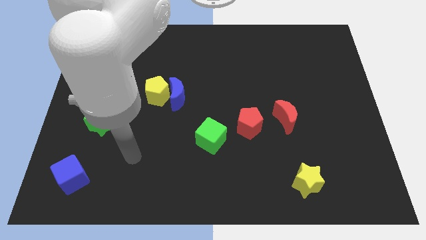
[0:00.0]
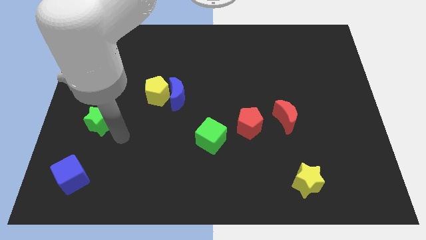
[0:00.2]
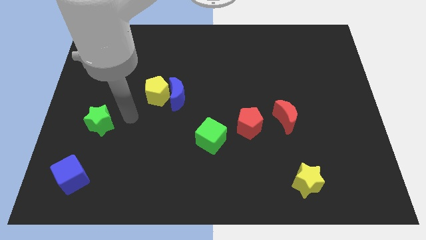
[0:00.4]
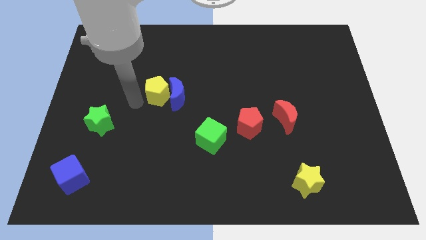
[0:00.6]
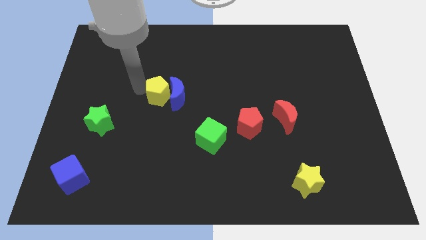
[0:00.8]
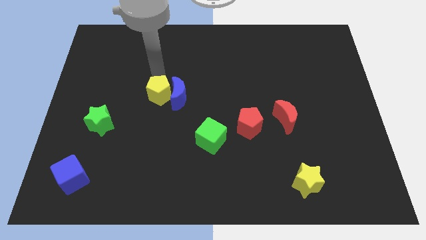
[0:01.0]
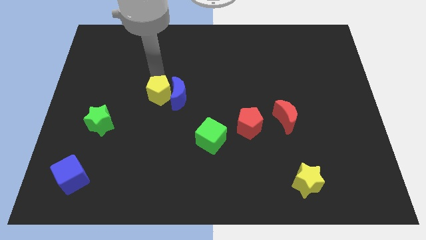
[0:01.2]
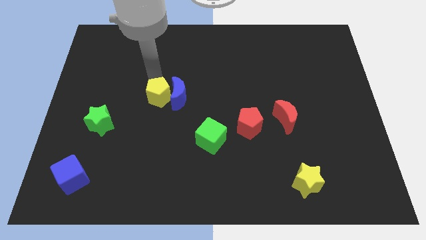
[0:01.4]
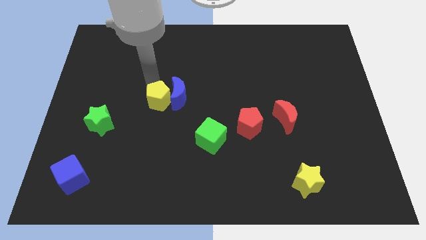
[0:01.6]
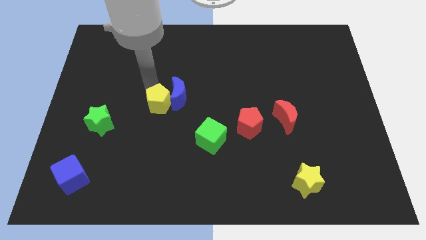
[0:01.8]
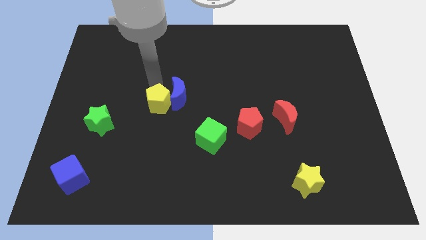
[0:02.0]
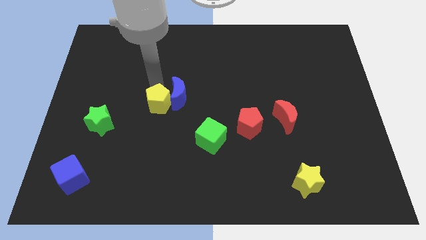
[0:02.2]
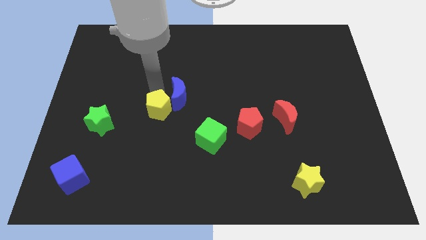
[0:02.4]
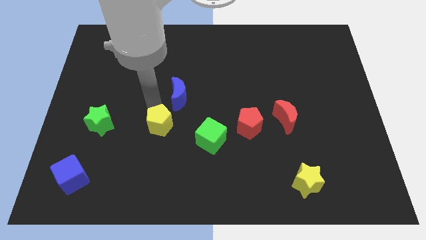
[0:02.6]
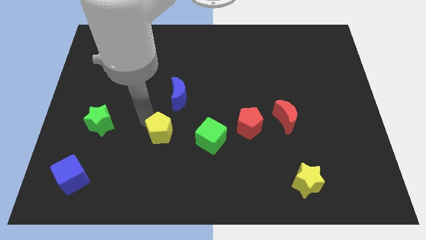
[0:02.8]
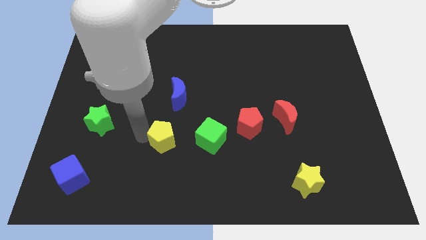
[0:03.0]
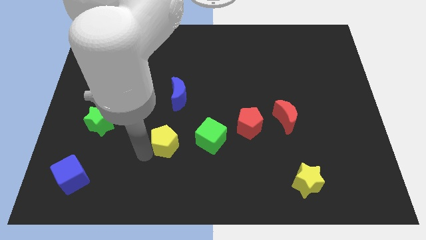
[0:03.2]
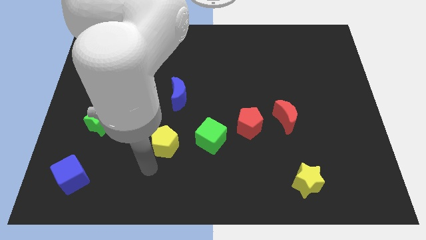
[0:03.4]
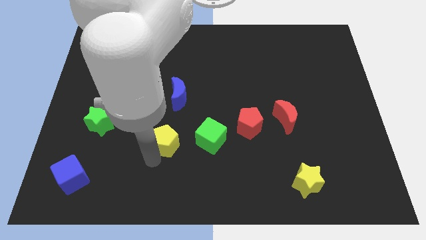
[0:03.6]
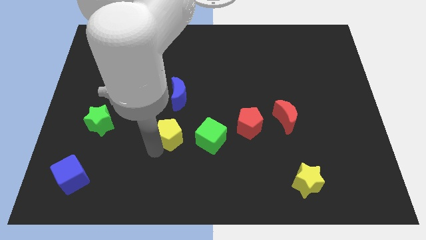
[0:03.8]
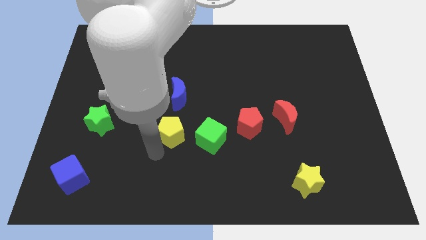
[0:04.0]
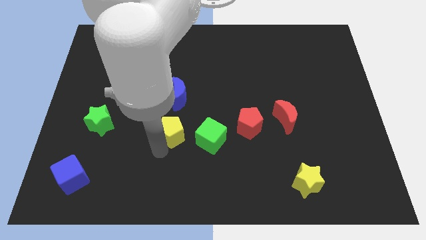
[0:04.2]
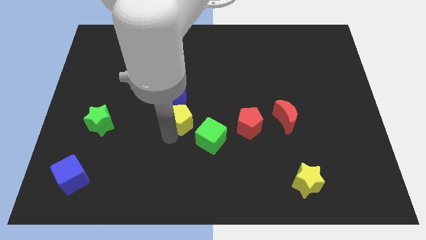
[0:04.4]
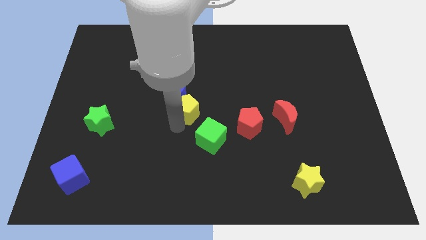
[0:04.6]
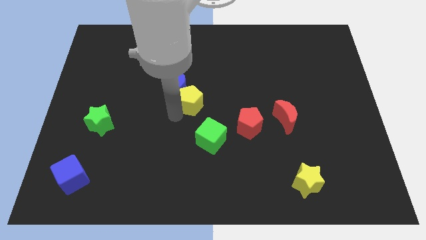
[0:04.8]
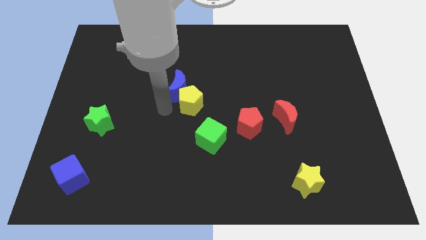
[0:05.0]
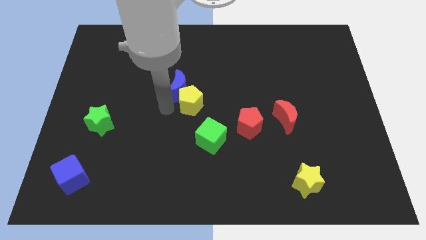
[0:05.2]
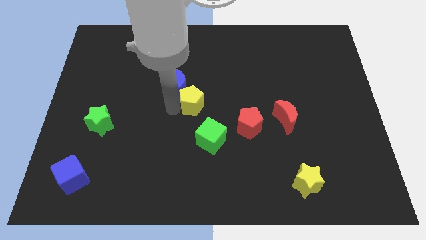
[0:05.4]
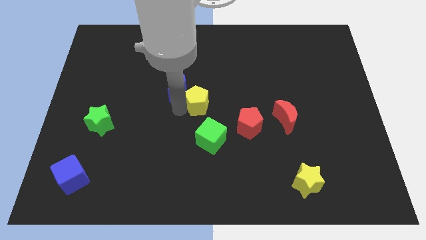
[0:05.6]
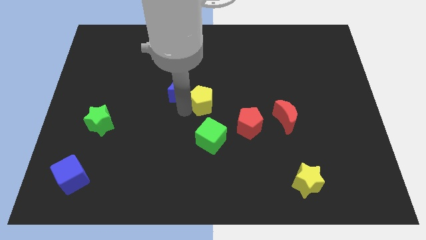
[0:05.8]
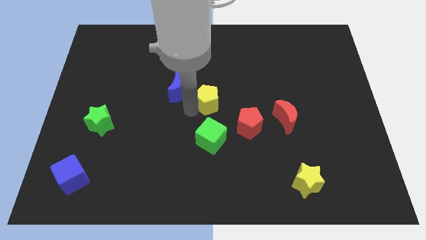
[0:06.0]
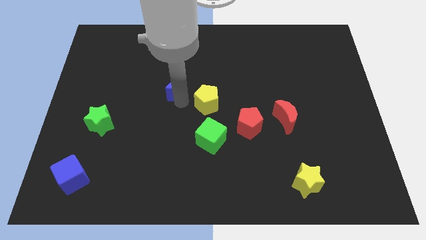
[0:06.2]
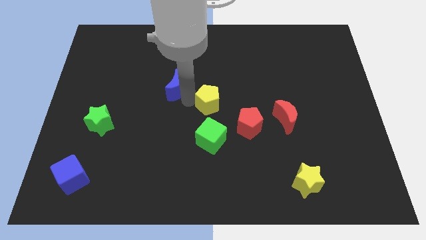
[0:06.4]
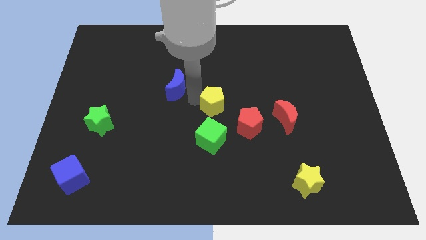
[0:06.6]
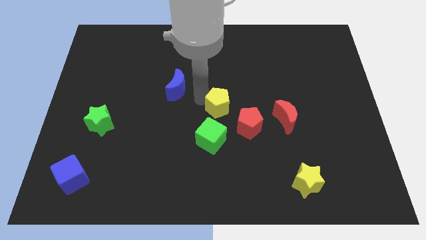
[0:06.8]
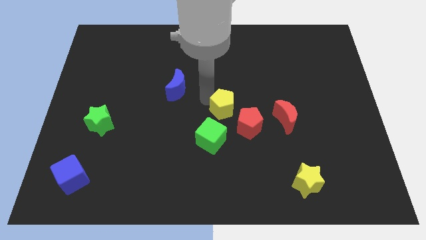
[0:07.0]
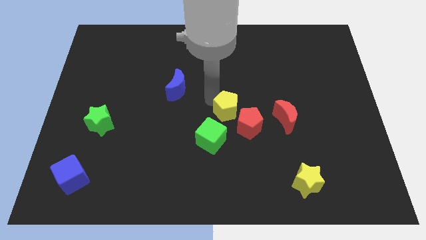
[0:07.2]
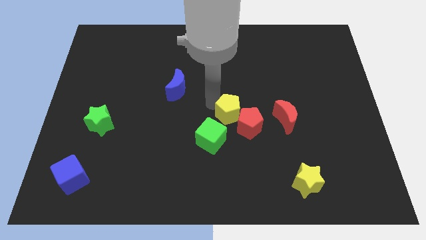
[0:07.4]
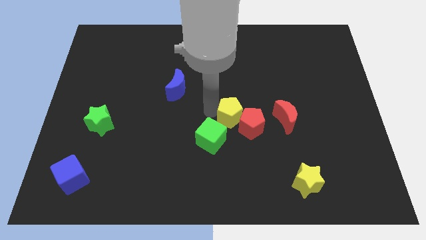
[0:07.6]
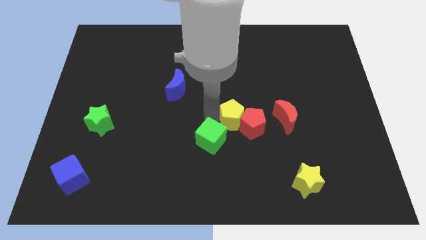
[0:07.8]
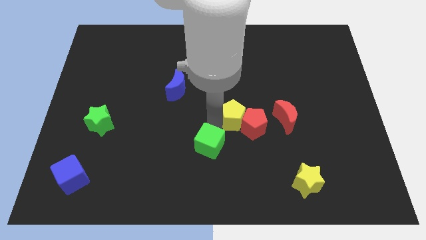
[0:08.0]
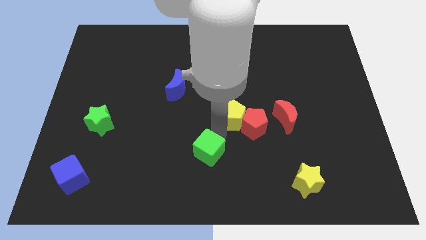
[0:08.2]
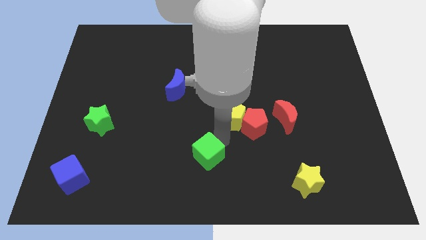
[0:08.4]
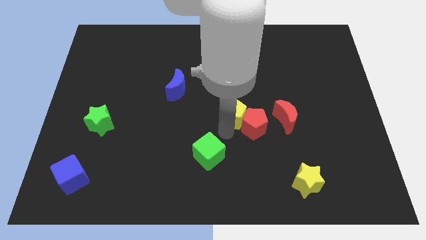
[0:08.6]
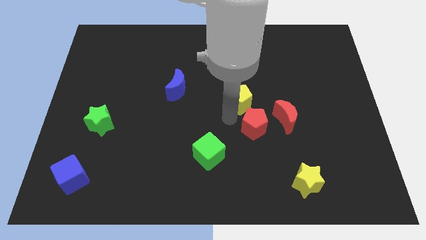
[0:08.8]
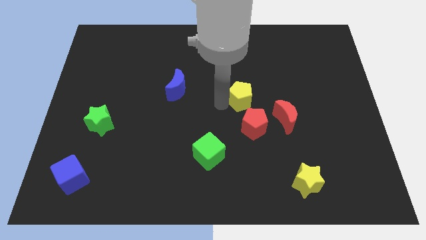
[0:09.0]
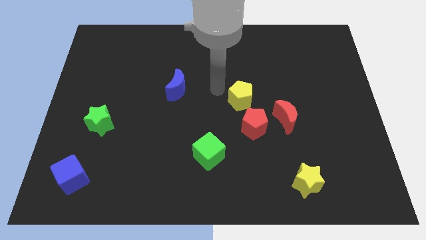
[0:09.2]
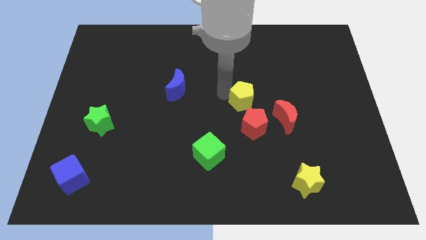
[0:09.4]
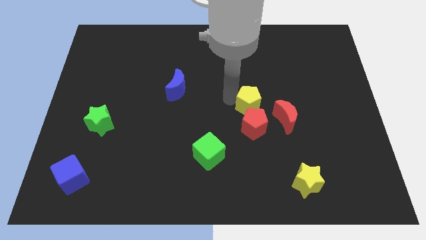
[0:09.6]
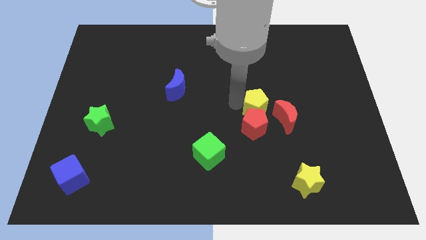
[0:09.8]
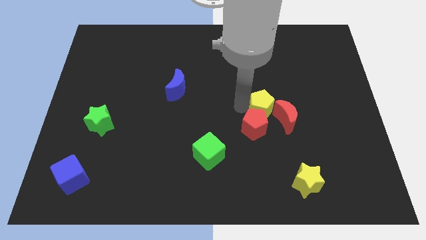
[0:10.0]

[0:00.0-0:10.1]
slide the yellow pentagon towards the red moon

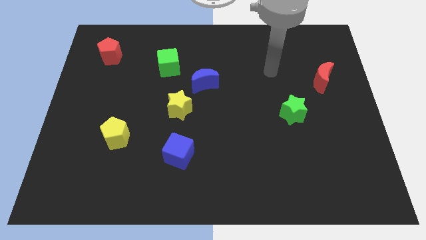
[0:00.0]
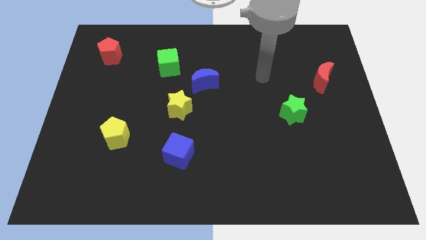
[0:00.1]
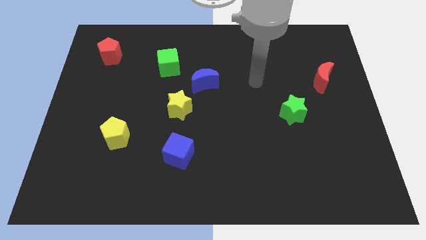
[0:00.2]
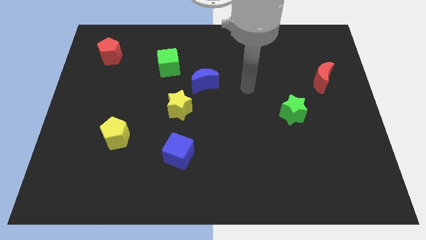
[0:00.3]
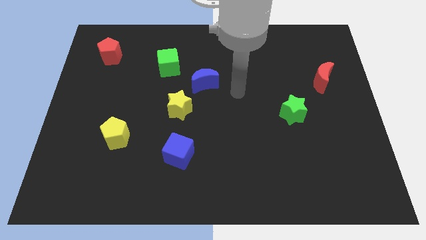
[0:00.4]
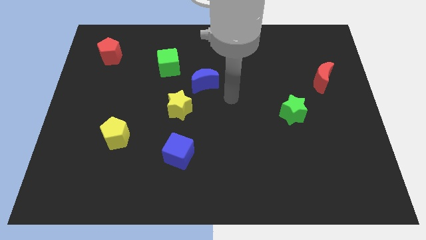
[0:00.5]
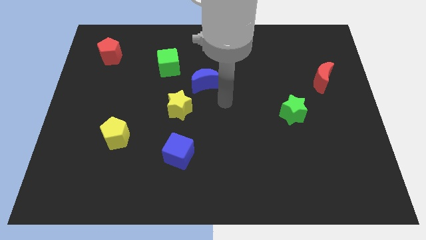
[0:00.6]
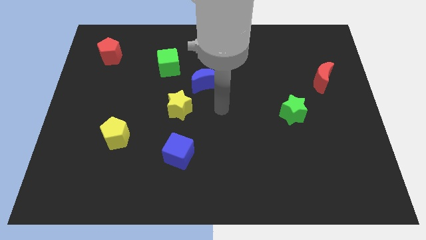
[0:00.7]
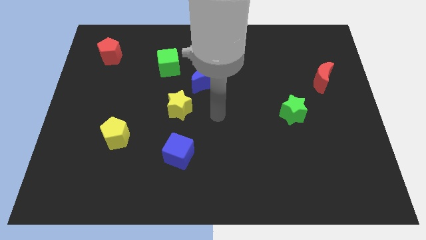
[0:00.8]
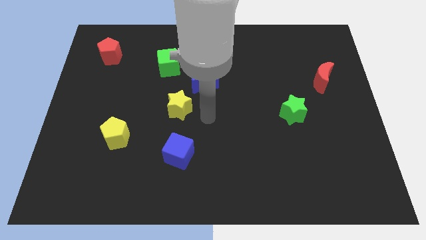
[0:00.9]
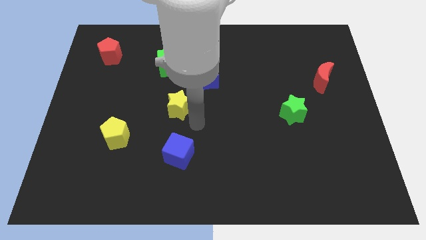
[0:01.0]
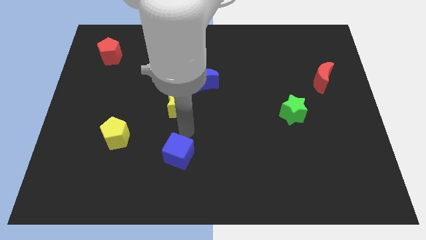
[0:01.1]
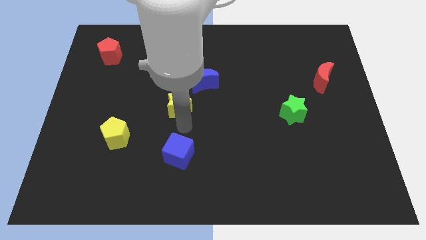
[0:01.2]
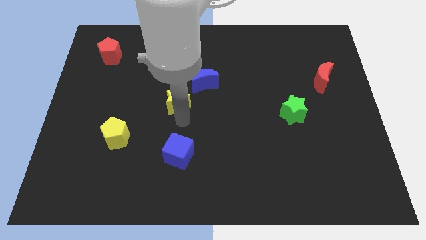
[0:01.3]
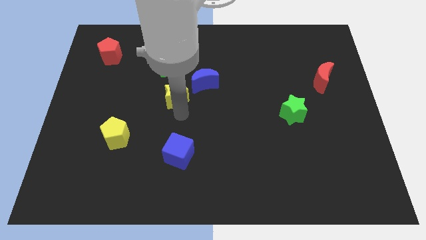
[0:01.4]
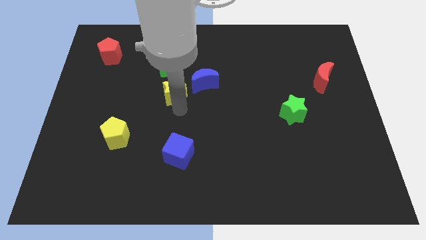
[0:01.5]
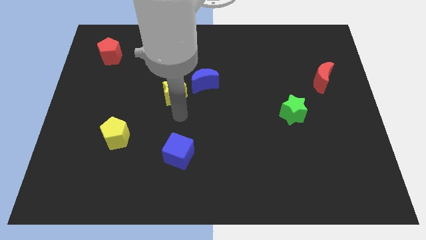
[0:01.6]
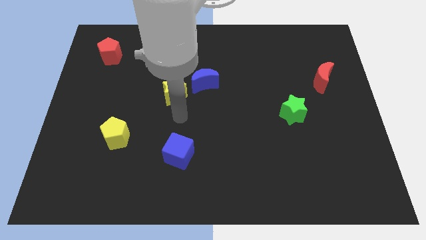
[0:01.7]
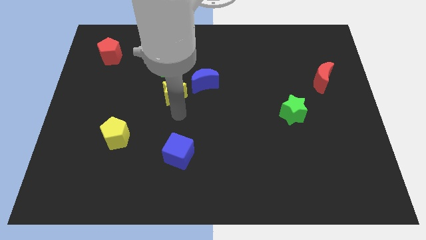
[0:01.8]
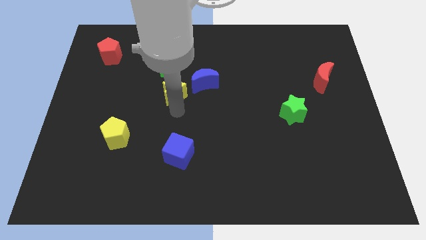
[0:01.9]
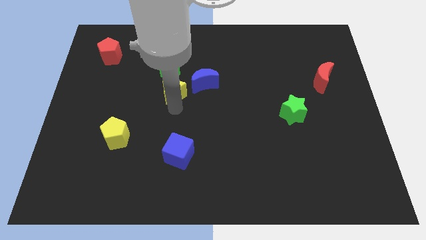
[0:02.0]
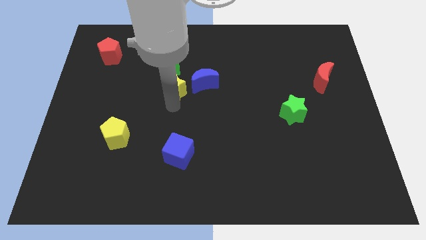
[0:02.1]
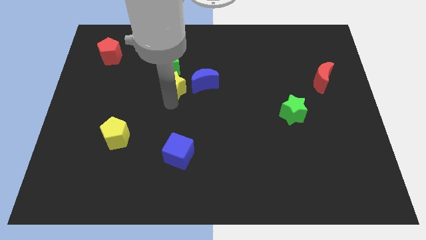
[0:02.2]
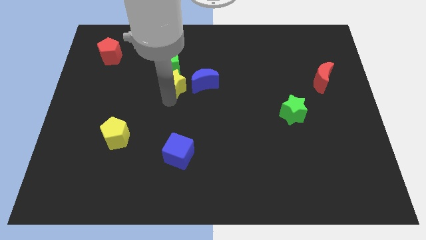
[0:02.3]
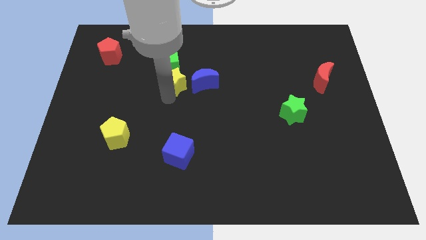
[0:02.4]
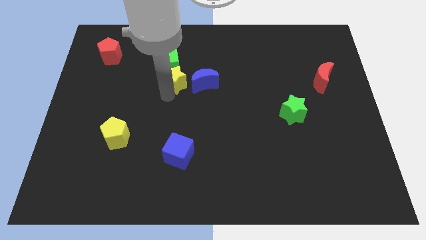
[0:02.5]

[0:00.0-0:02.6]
push the yellow star next to the green cube

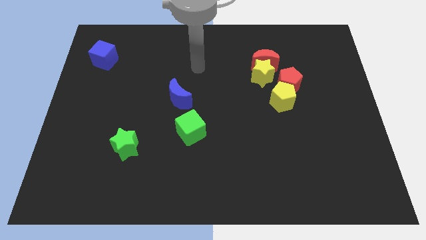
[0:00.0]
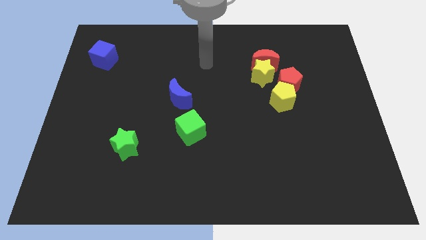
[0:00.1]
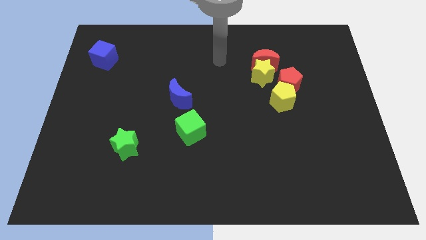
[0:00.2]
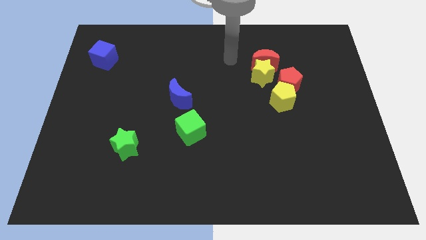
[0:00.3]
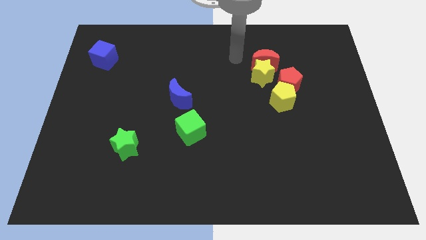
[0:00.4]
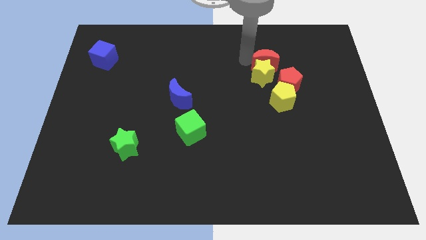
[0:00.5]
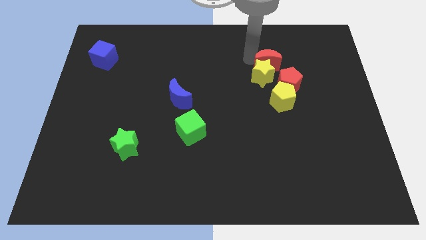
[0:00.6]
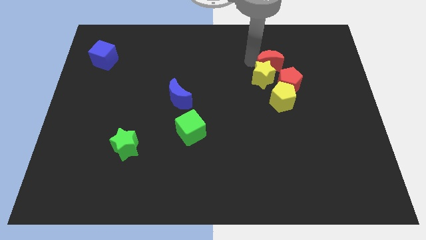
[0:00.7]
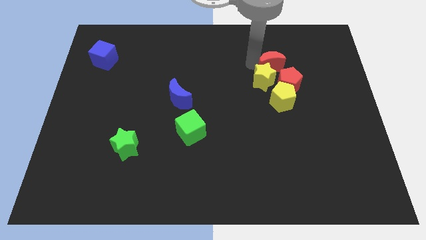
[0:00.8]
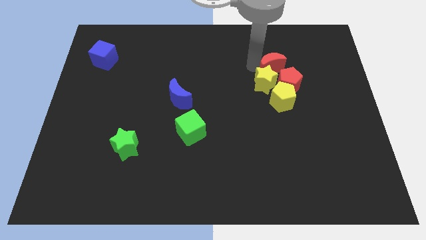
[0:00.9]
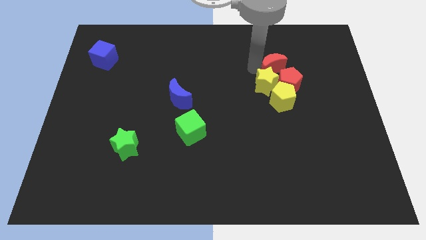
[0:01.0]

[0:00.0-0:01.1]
put the yellow star next to the yellow pentagon
